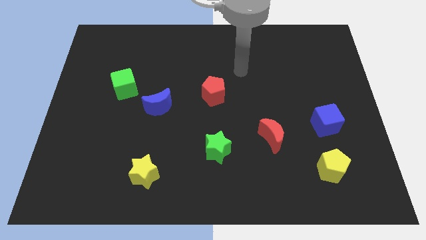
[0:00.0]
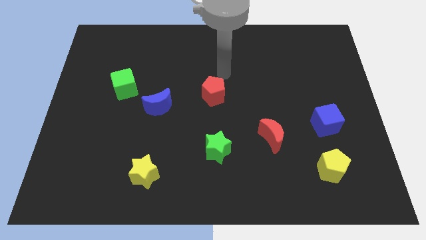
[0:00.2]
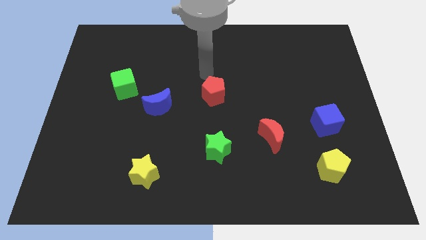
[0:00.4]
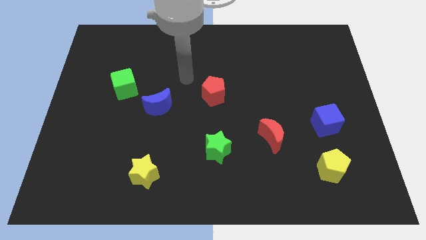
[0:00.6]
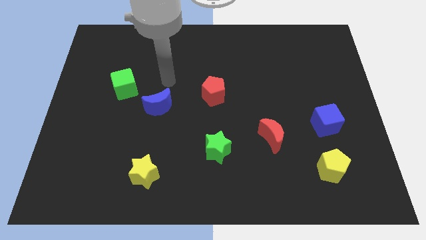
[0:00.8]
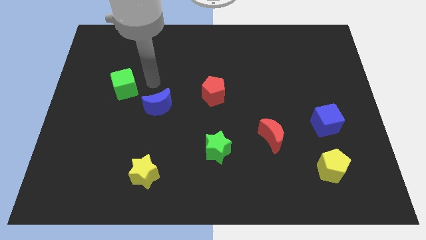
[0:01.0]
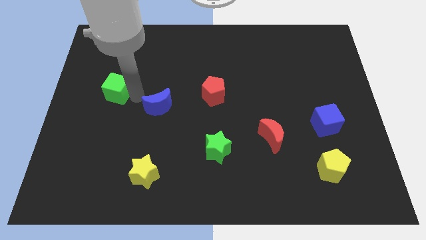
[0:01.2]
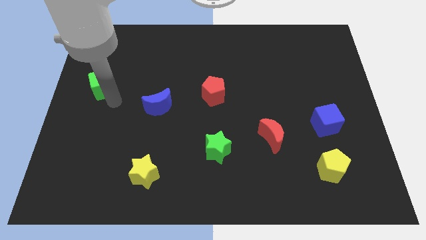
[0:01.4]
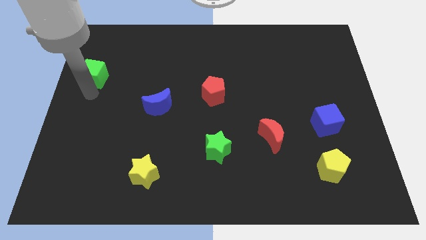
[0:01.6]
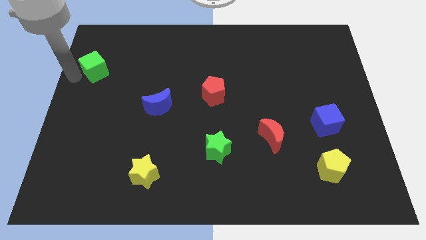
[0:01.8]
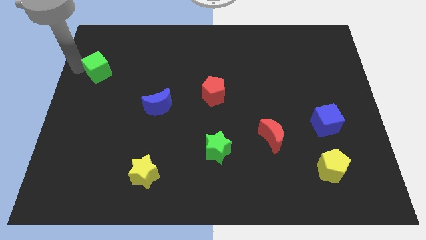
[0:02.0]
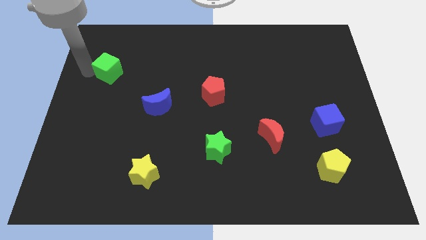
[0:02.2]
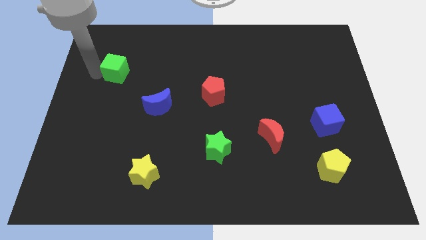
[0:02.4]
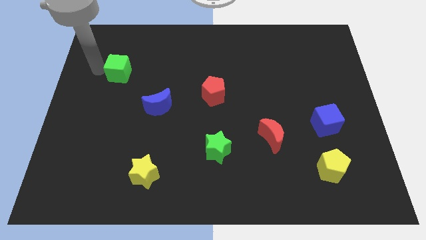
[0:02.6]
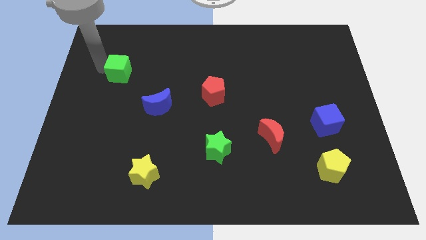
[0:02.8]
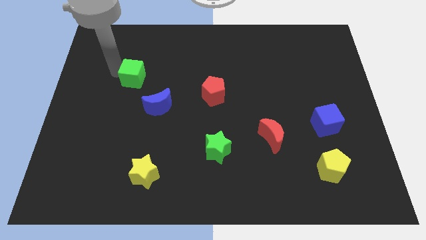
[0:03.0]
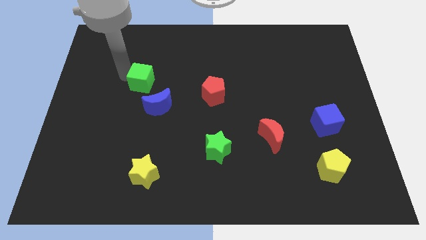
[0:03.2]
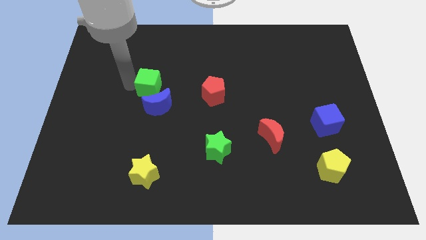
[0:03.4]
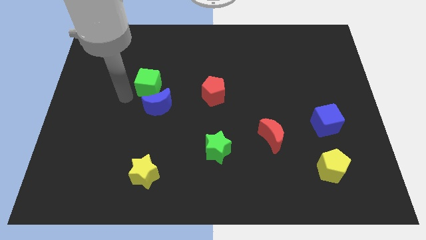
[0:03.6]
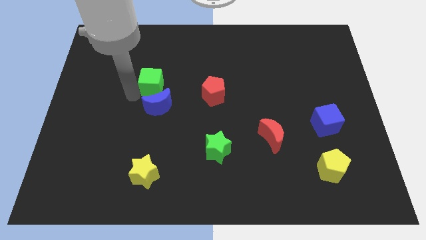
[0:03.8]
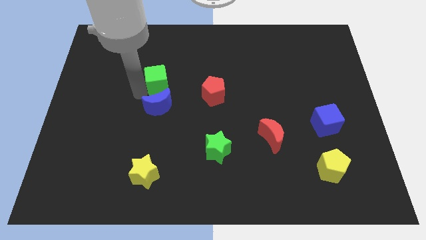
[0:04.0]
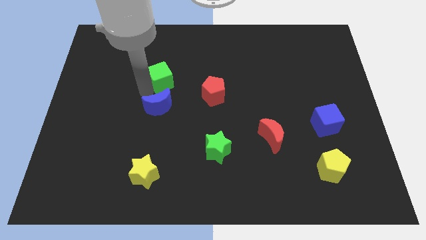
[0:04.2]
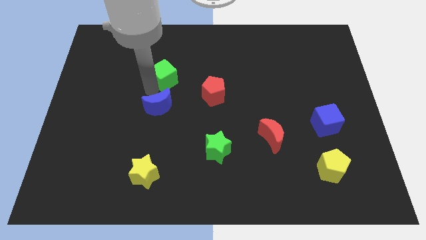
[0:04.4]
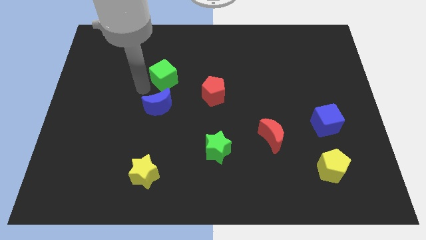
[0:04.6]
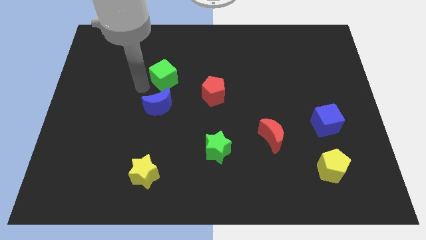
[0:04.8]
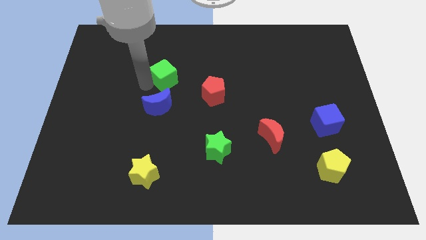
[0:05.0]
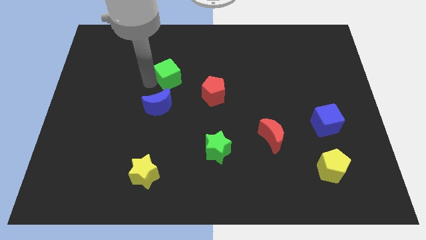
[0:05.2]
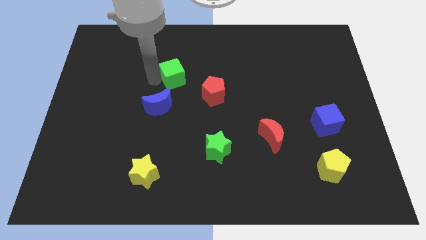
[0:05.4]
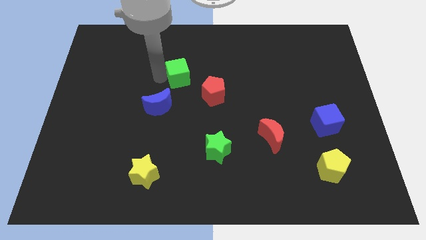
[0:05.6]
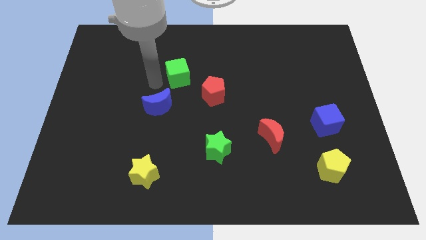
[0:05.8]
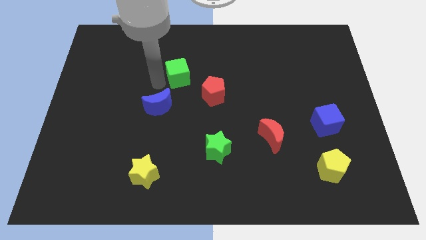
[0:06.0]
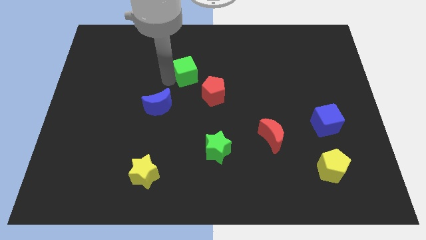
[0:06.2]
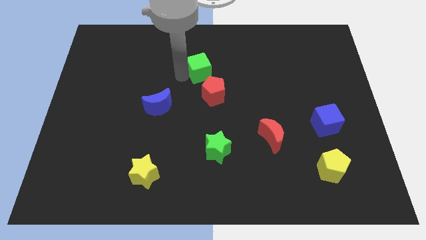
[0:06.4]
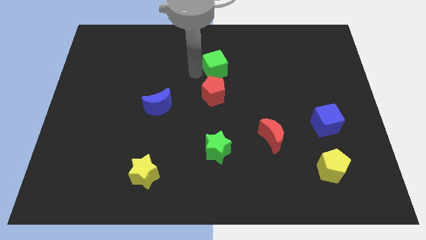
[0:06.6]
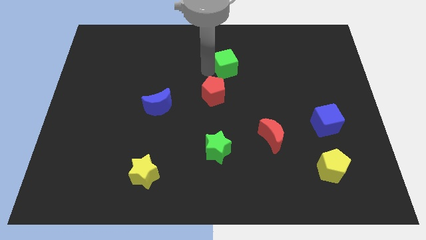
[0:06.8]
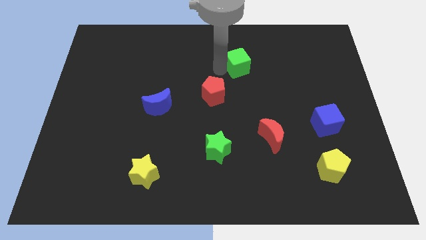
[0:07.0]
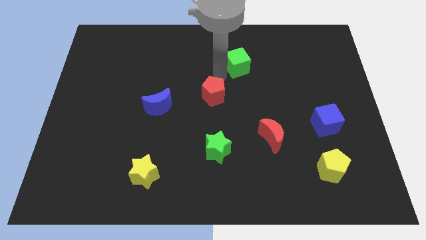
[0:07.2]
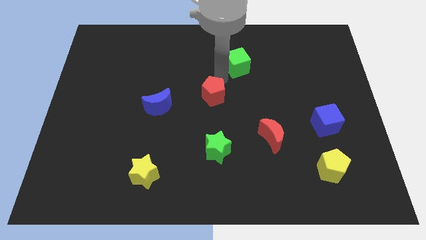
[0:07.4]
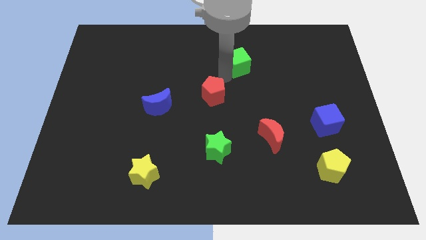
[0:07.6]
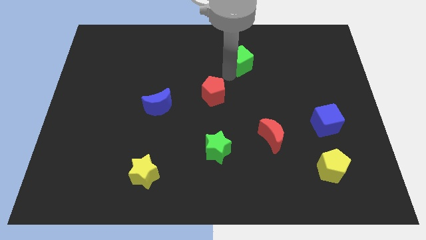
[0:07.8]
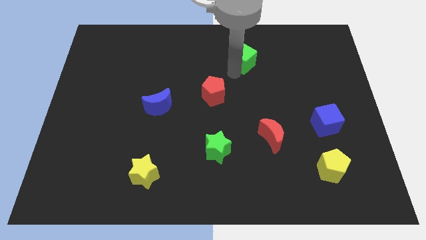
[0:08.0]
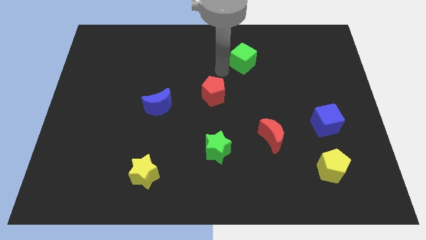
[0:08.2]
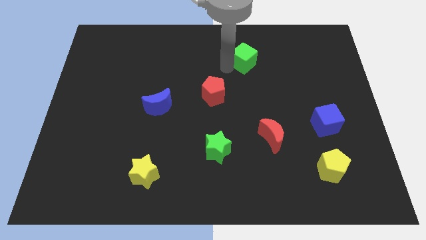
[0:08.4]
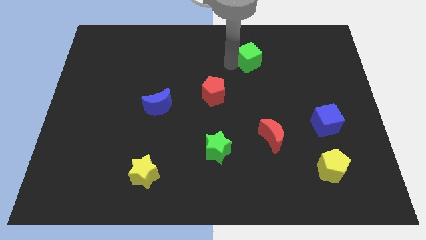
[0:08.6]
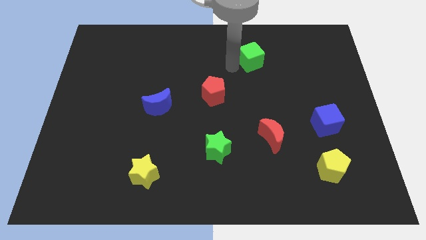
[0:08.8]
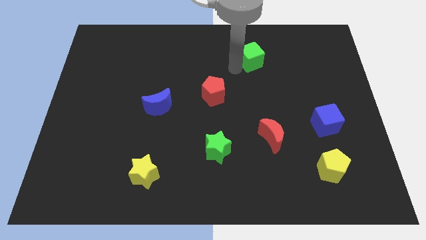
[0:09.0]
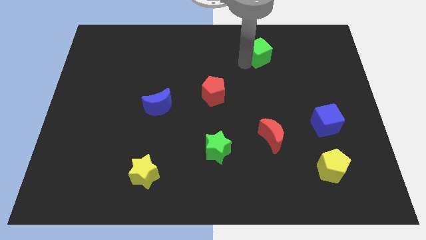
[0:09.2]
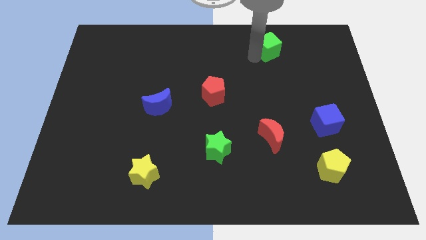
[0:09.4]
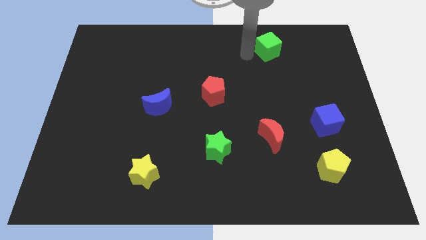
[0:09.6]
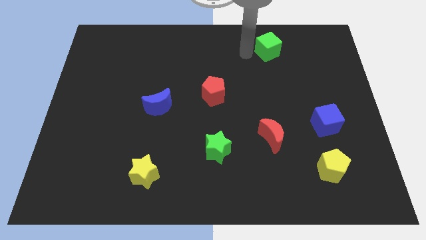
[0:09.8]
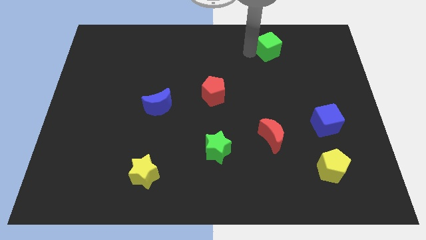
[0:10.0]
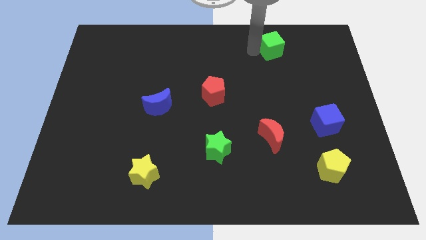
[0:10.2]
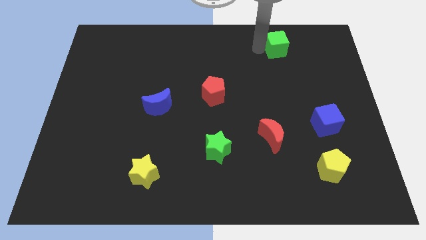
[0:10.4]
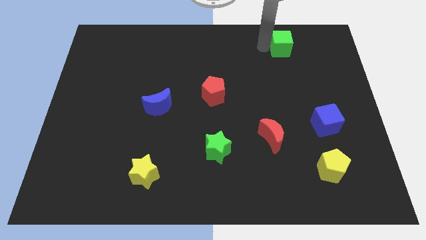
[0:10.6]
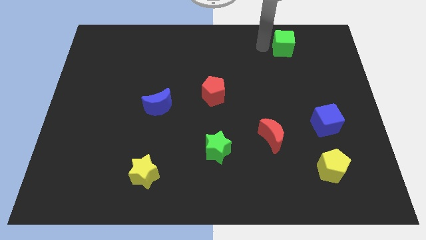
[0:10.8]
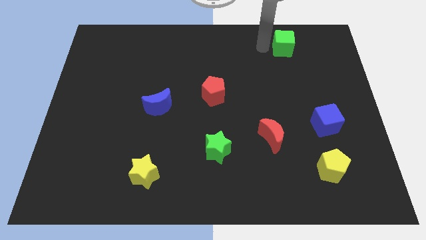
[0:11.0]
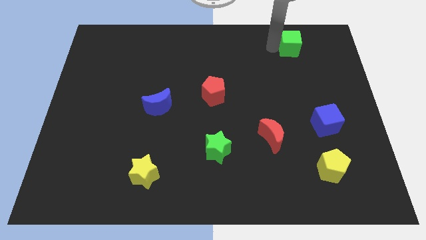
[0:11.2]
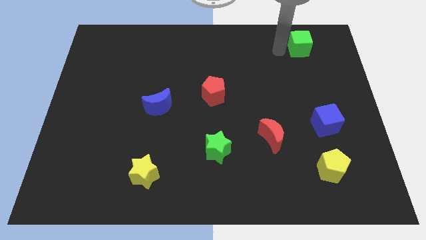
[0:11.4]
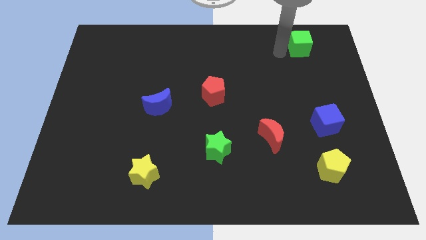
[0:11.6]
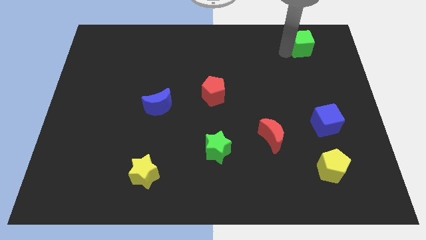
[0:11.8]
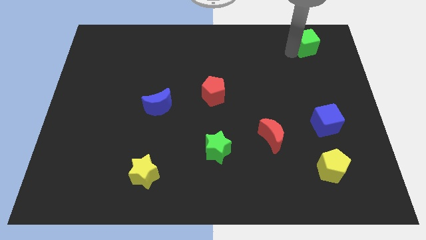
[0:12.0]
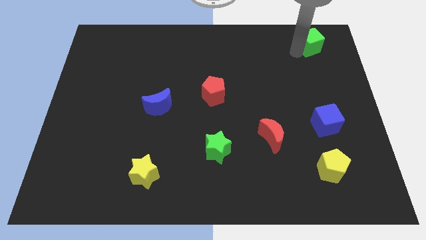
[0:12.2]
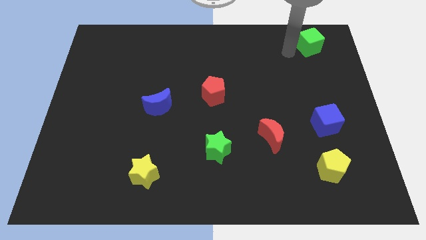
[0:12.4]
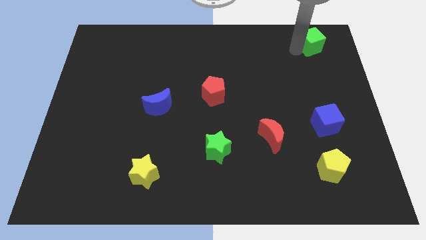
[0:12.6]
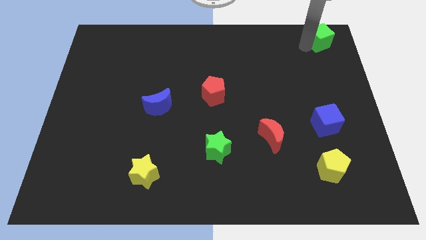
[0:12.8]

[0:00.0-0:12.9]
slide the green cube to the top right of the board
